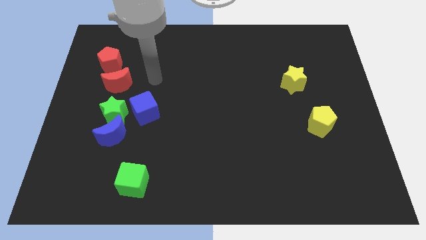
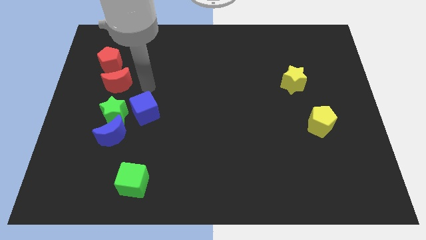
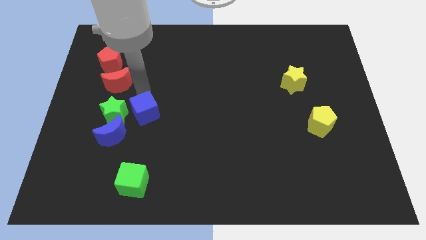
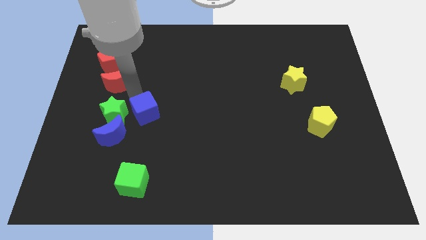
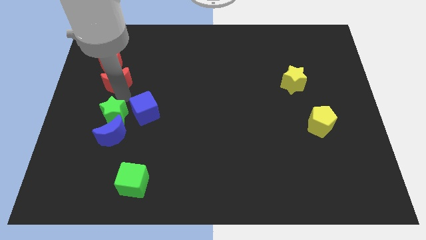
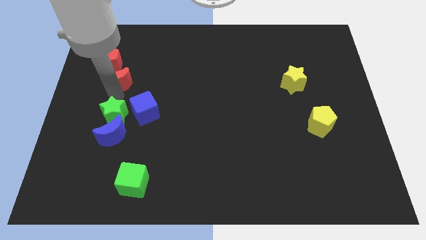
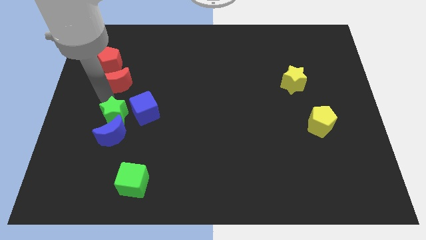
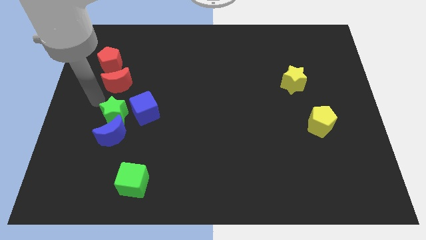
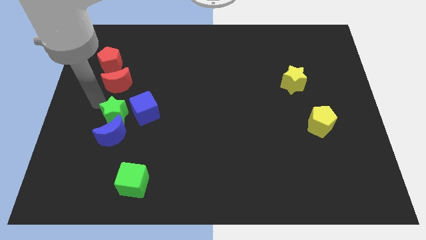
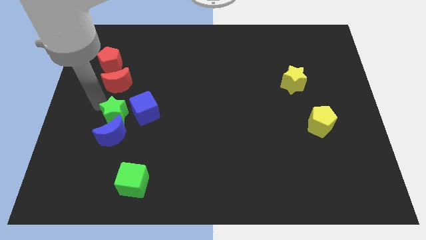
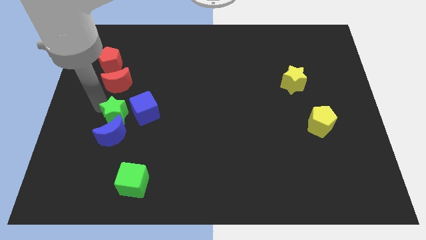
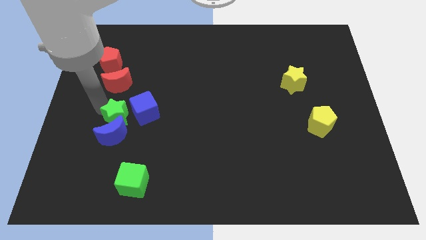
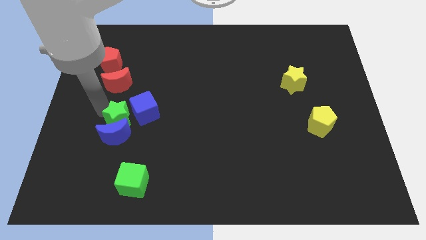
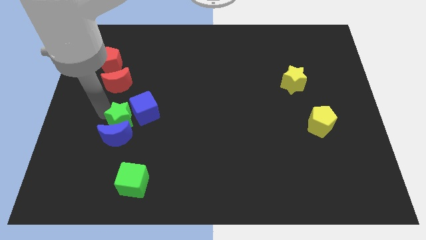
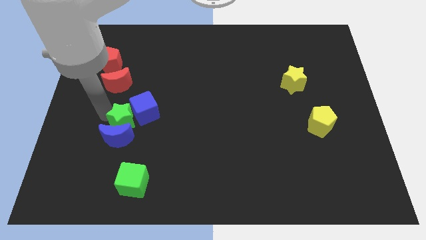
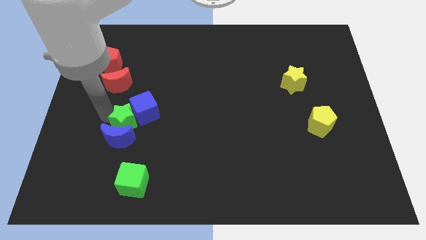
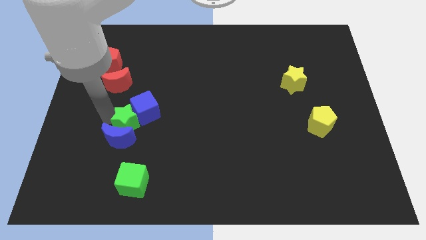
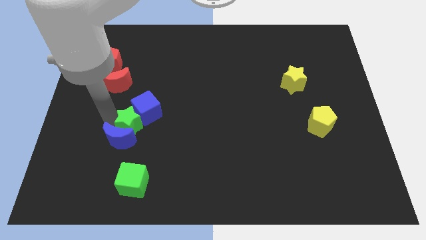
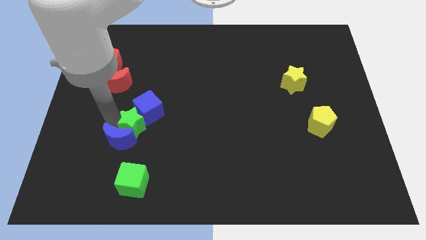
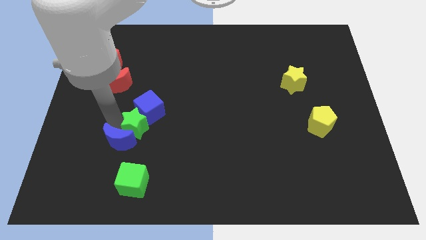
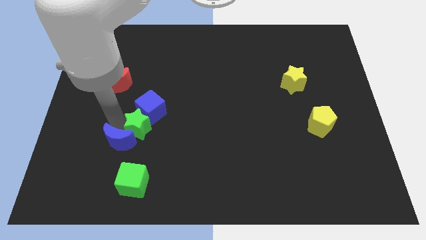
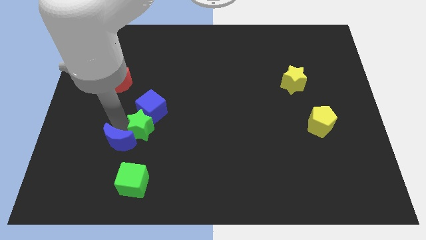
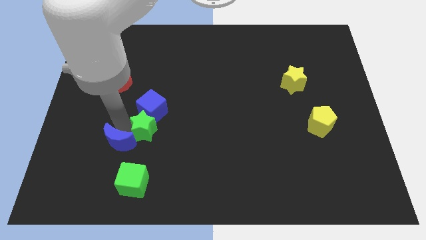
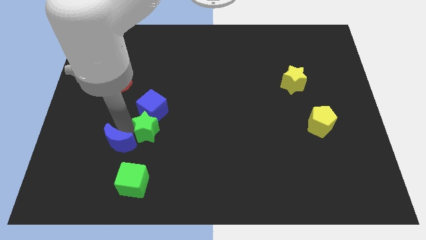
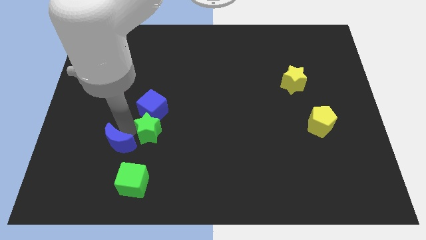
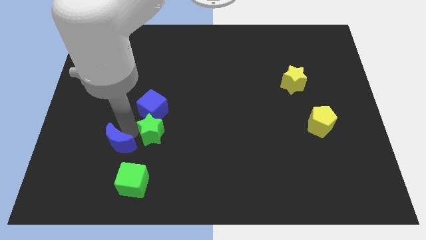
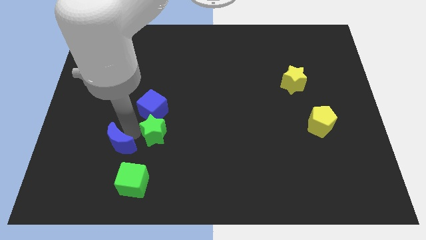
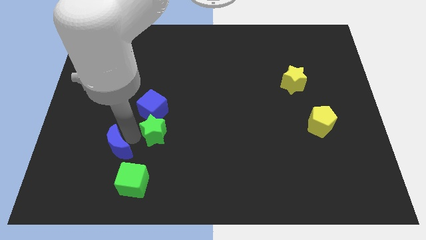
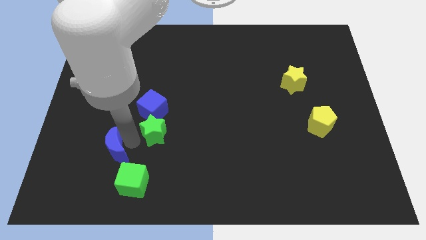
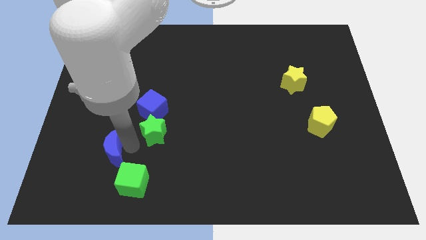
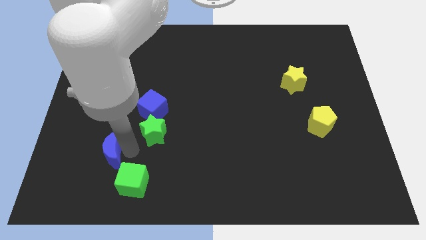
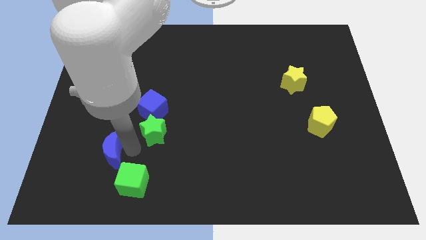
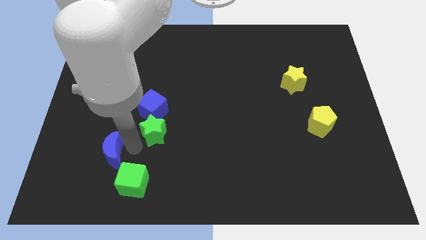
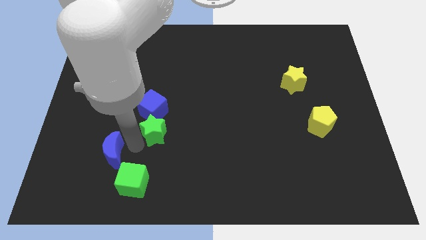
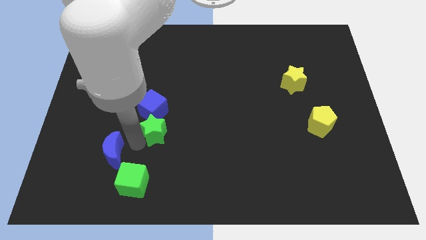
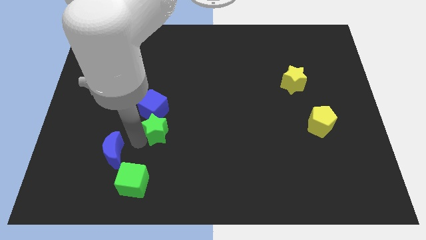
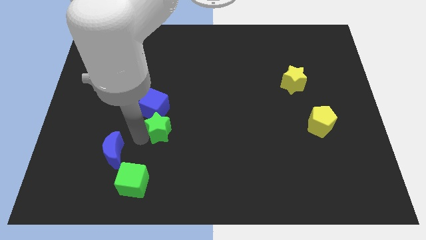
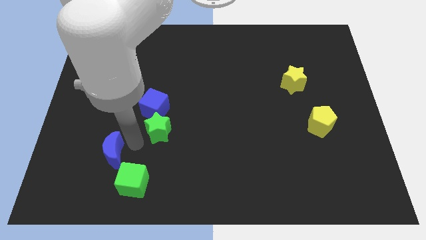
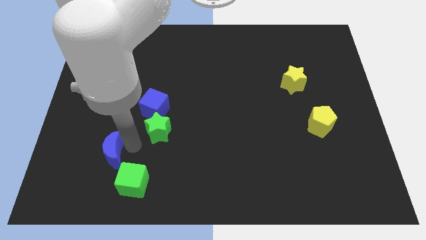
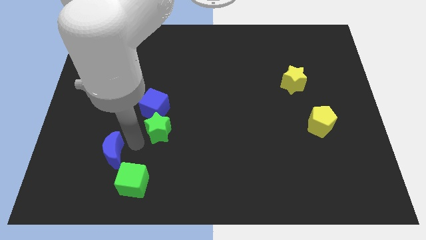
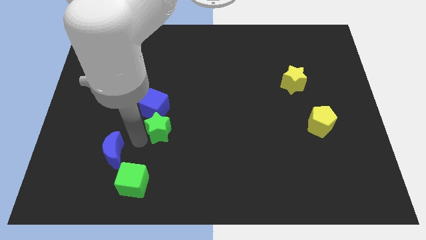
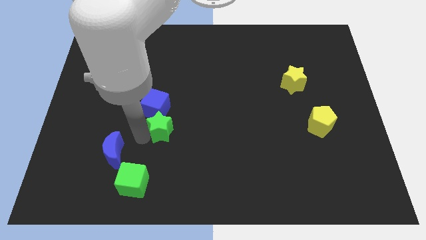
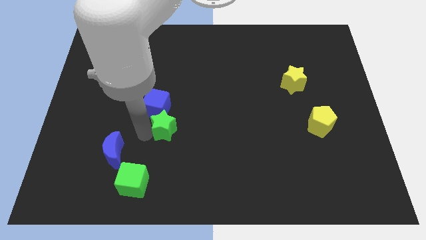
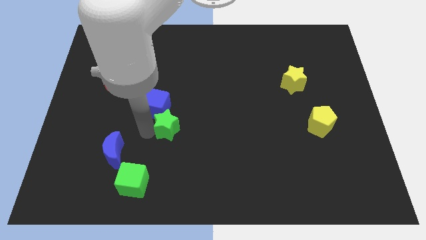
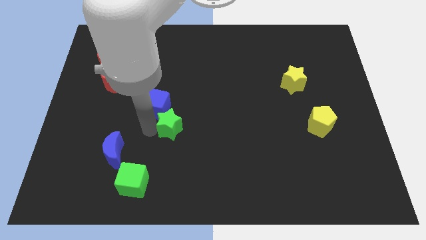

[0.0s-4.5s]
move the green star to the middle of the board

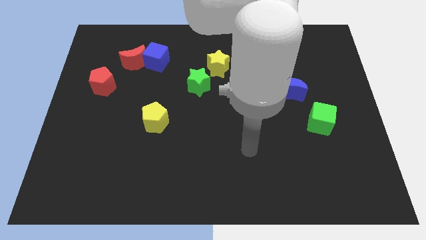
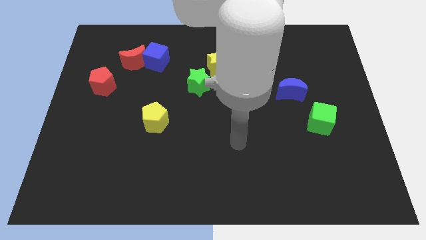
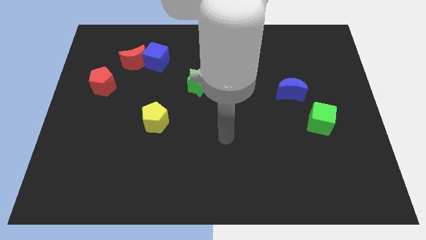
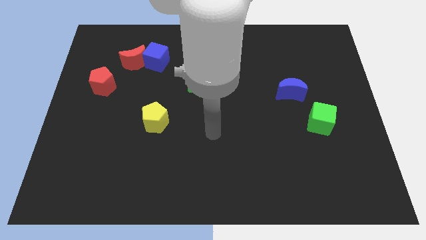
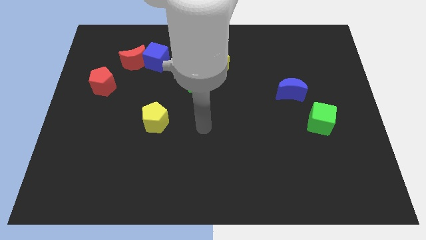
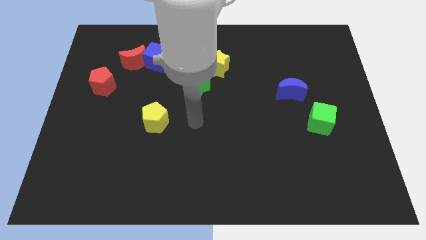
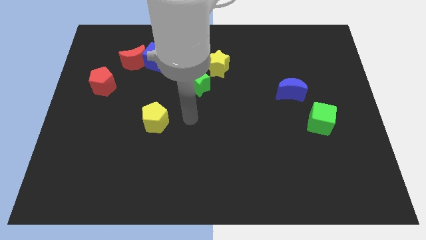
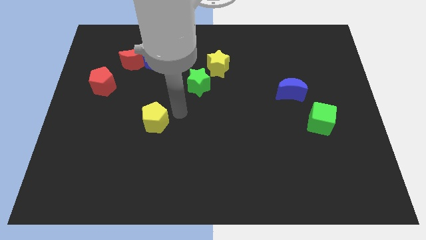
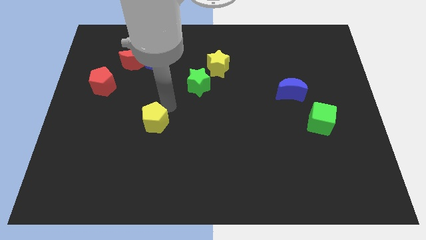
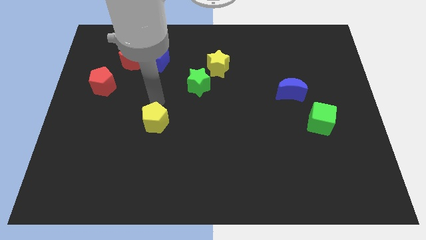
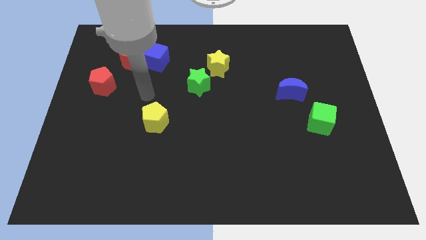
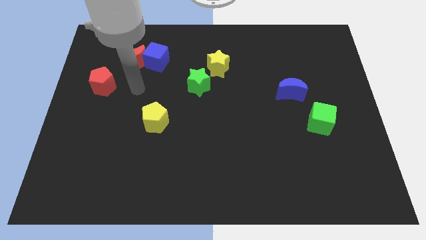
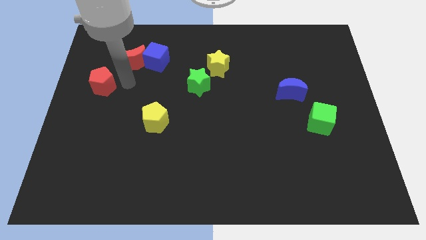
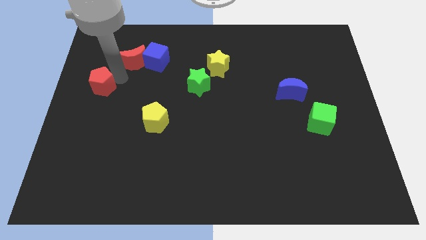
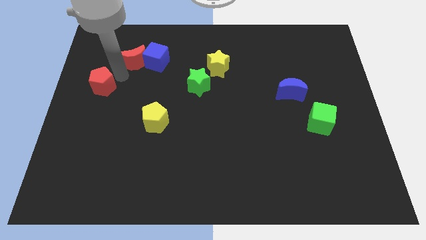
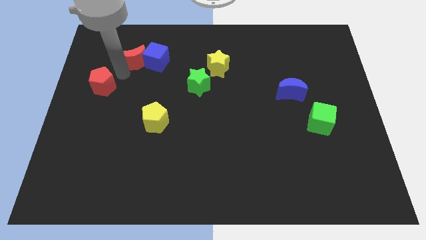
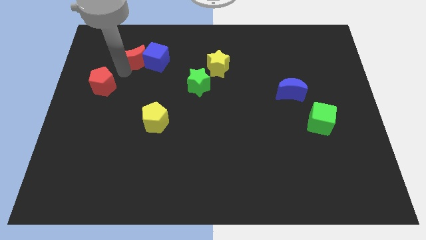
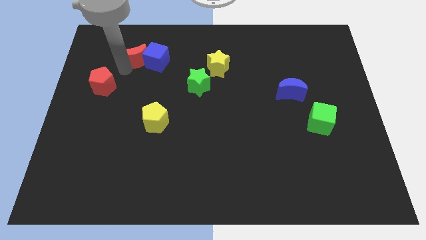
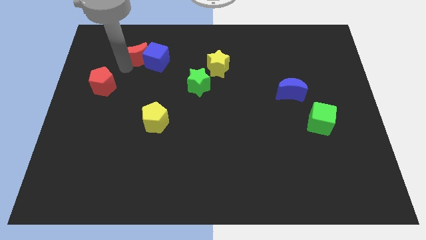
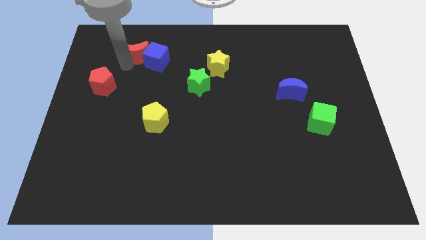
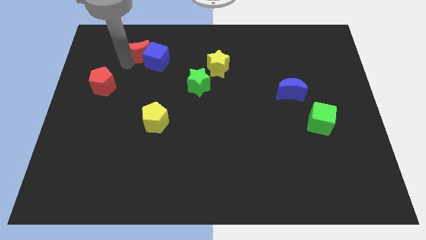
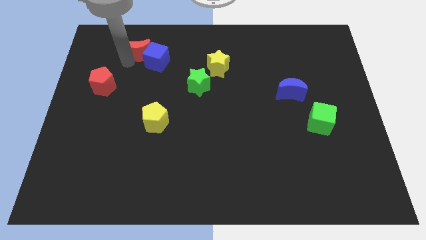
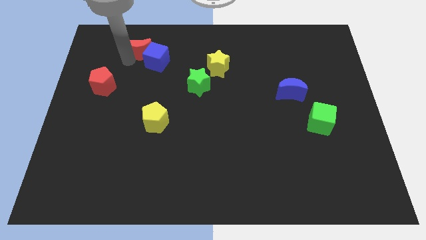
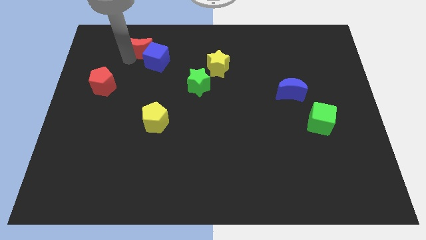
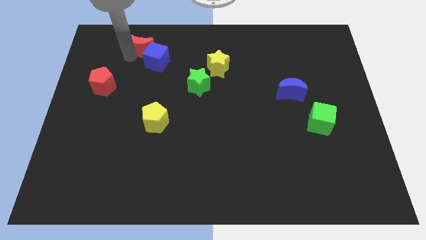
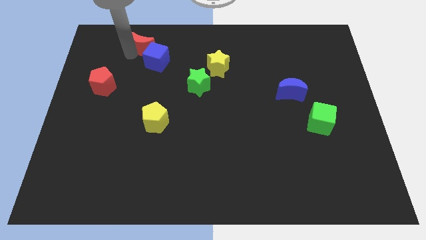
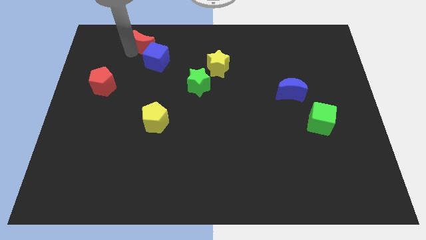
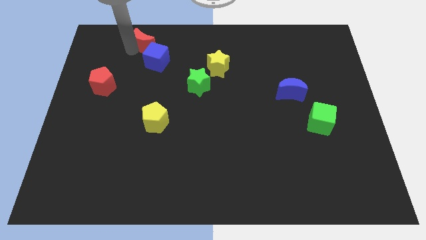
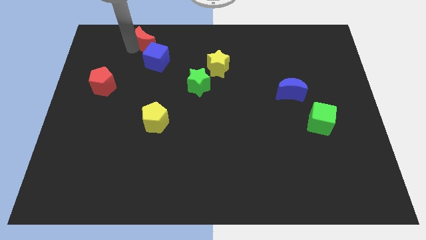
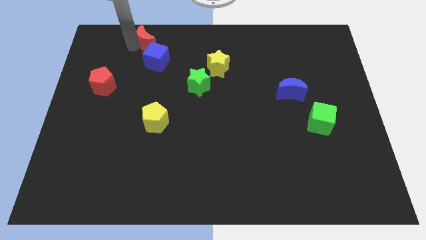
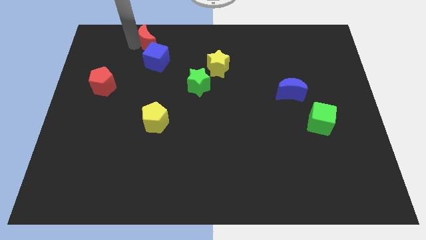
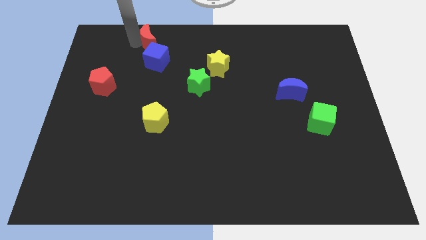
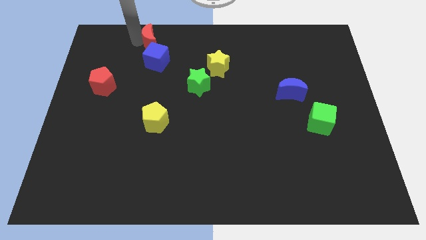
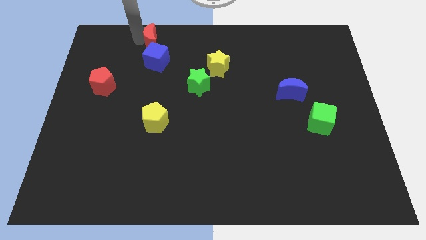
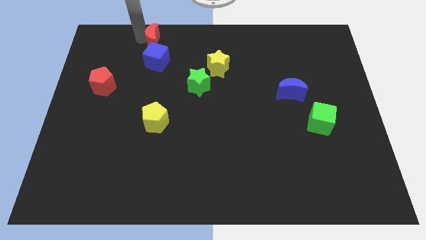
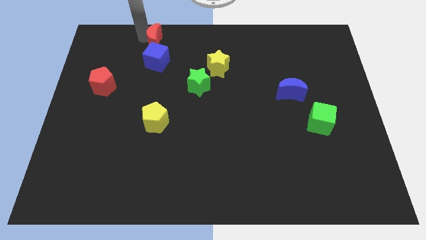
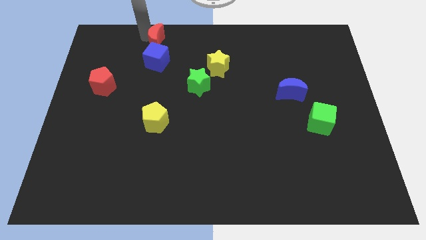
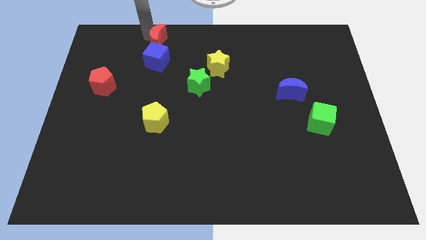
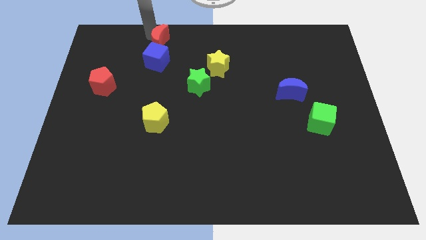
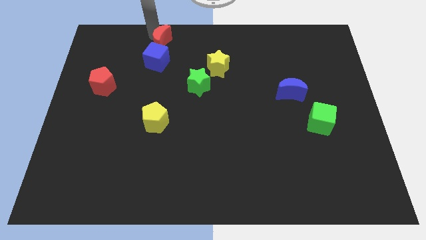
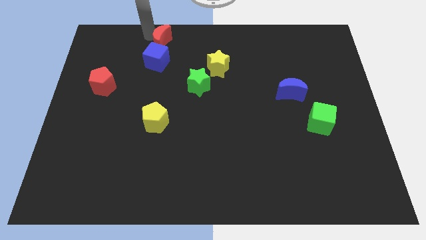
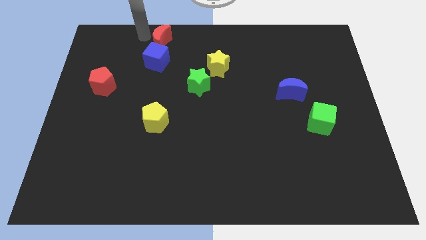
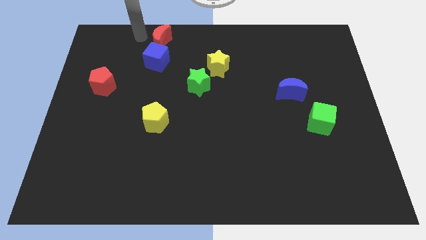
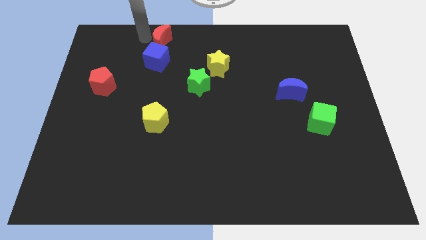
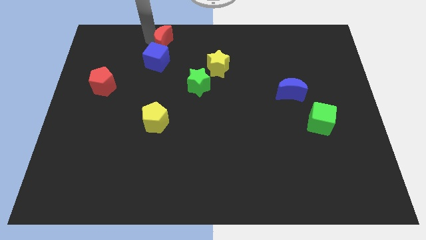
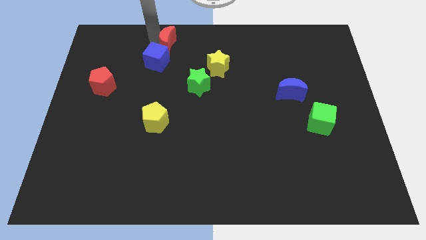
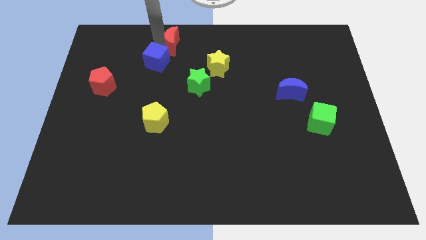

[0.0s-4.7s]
move the red moon to the towards your base
